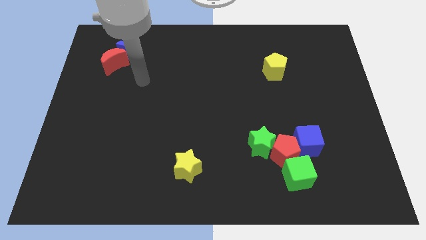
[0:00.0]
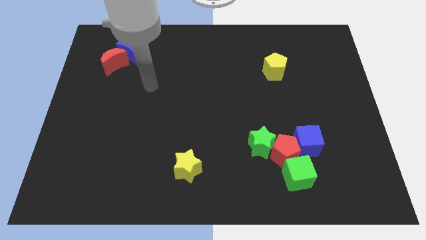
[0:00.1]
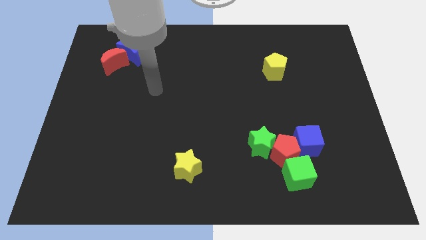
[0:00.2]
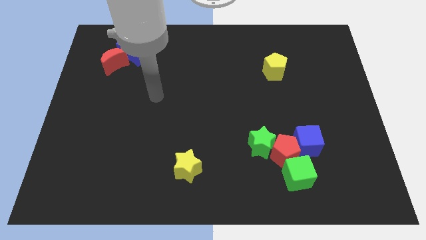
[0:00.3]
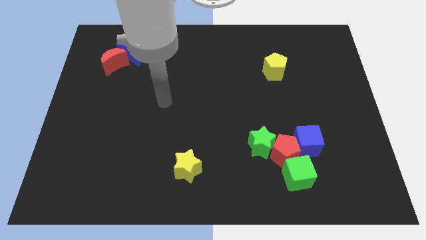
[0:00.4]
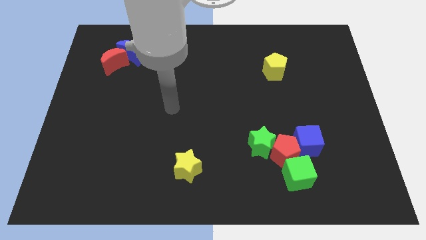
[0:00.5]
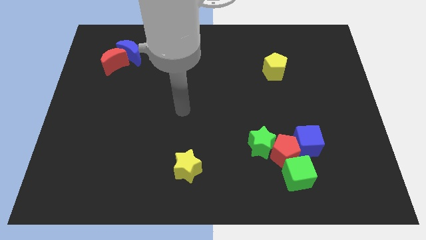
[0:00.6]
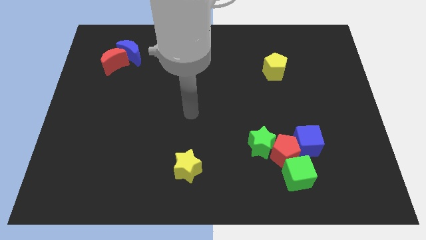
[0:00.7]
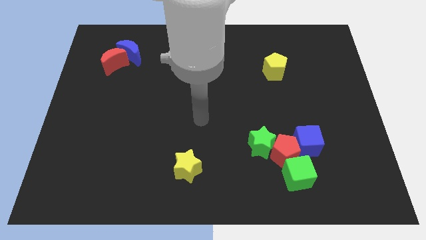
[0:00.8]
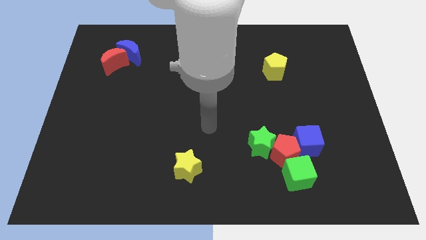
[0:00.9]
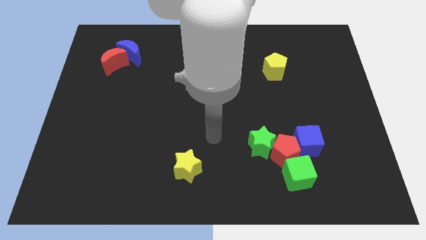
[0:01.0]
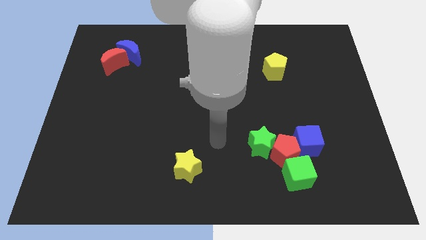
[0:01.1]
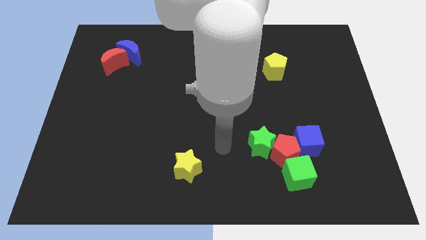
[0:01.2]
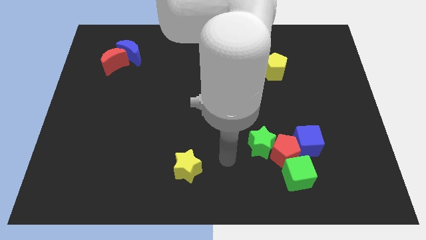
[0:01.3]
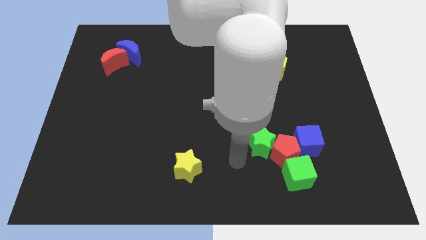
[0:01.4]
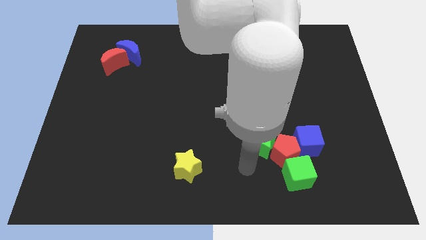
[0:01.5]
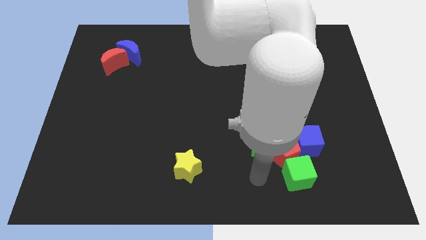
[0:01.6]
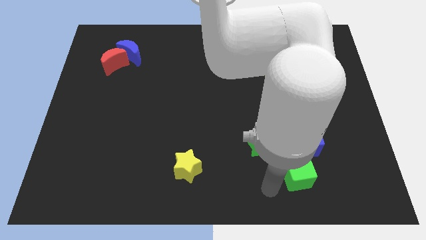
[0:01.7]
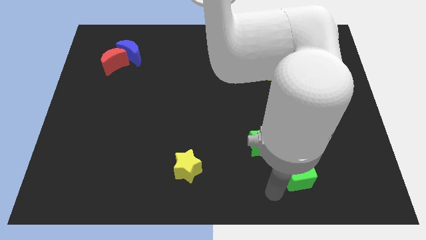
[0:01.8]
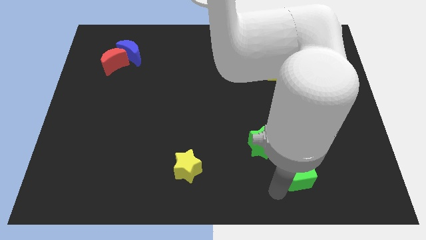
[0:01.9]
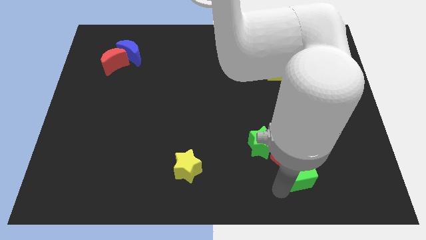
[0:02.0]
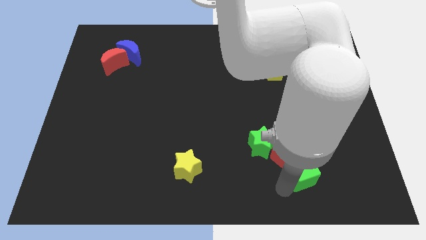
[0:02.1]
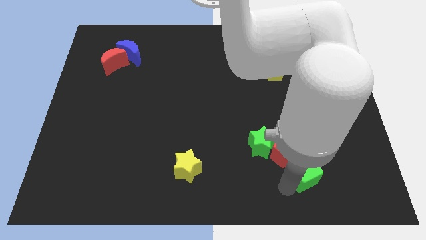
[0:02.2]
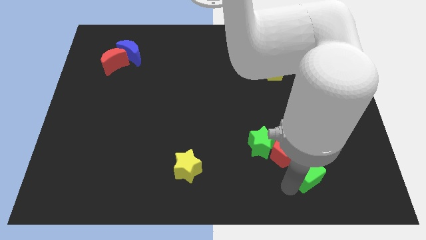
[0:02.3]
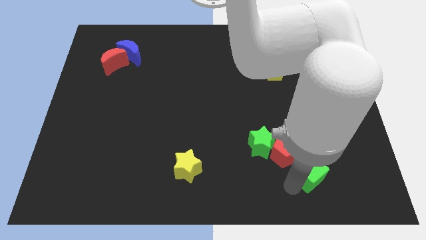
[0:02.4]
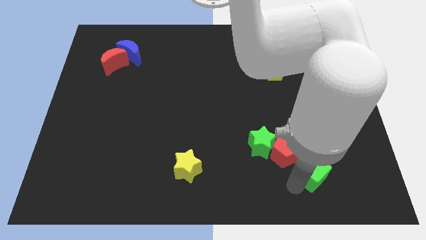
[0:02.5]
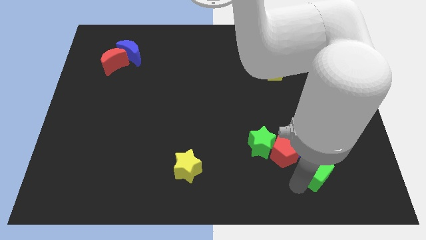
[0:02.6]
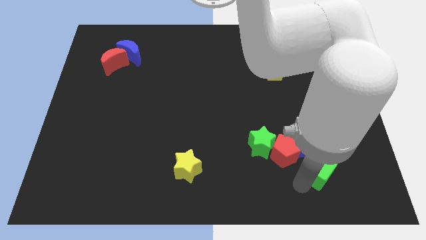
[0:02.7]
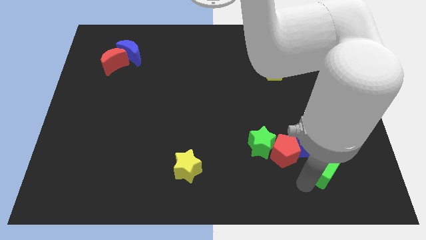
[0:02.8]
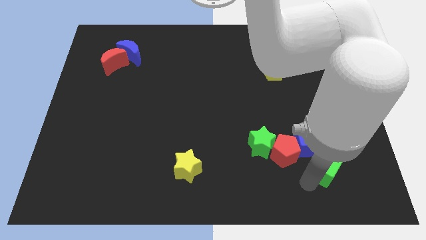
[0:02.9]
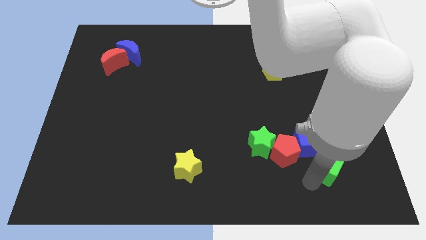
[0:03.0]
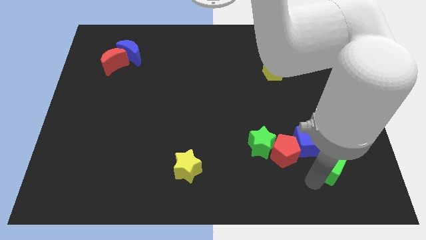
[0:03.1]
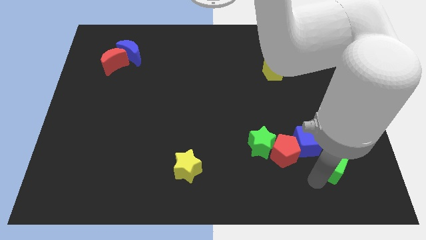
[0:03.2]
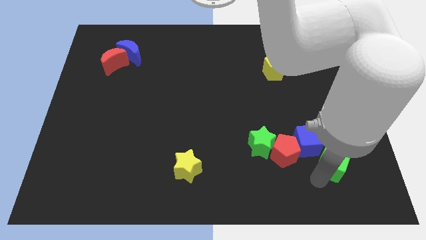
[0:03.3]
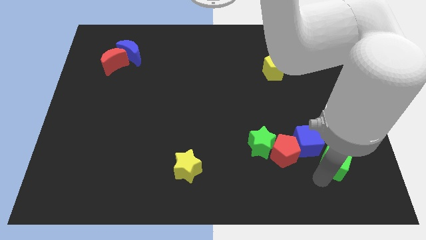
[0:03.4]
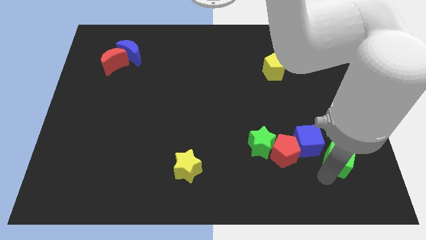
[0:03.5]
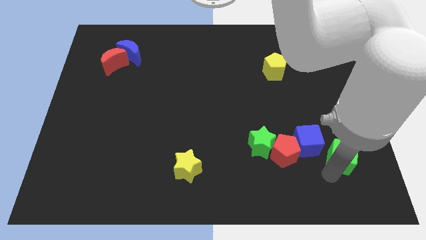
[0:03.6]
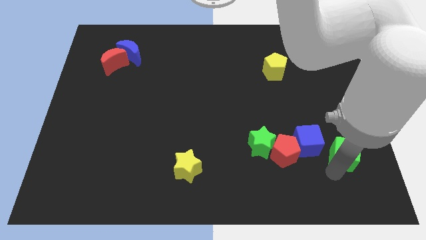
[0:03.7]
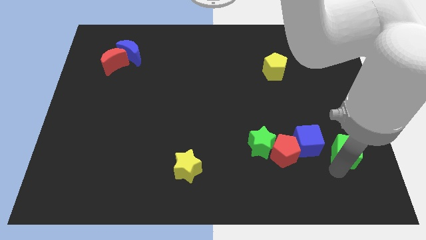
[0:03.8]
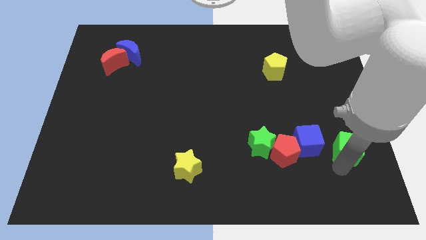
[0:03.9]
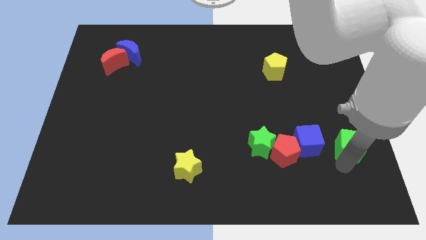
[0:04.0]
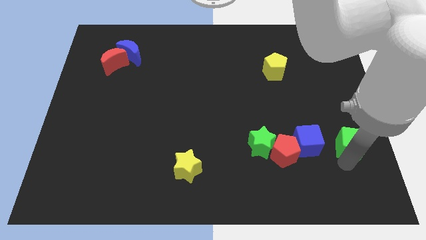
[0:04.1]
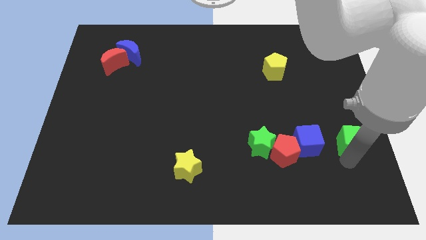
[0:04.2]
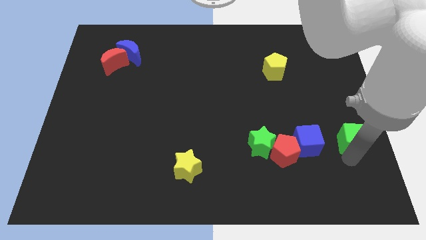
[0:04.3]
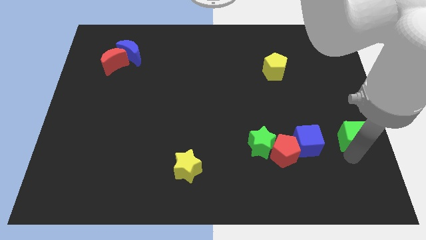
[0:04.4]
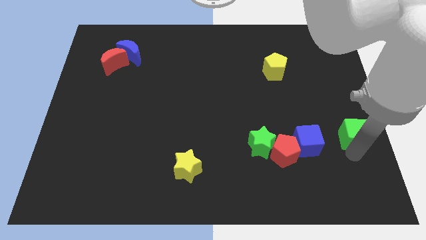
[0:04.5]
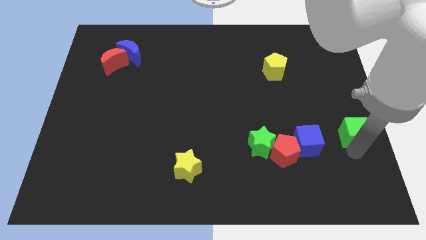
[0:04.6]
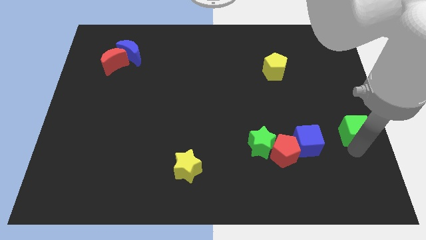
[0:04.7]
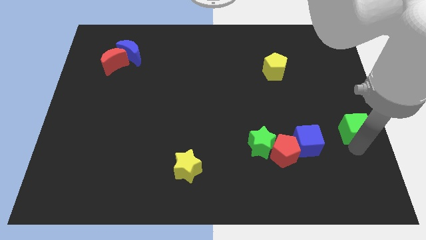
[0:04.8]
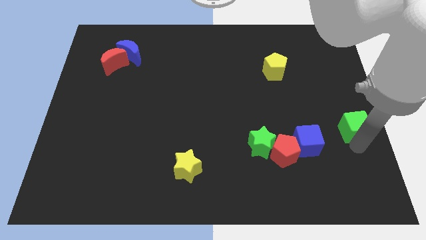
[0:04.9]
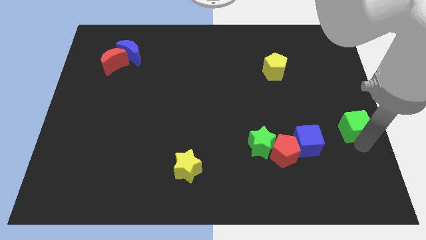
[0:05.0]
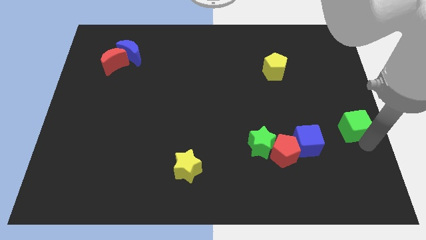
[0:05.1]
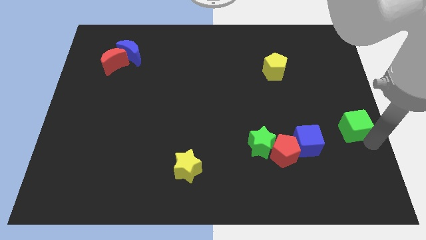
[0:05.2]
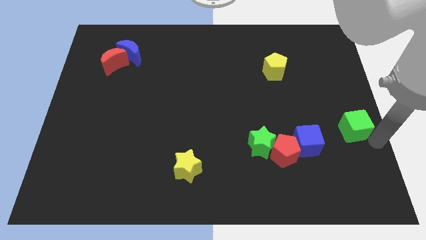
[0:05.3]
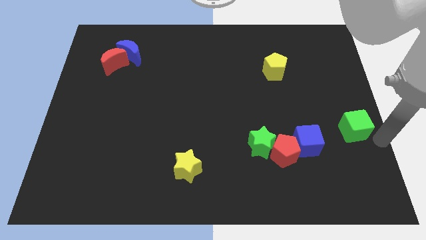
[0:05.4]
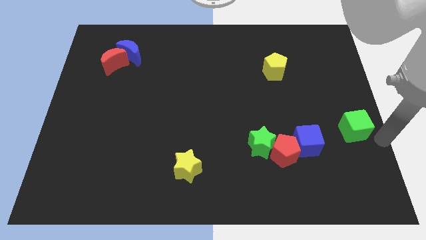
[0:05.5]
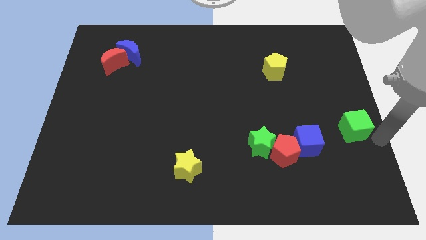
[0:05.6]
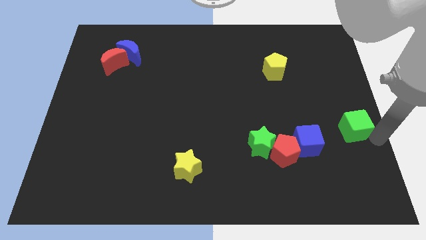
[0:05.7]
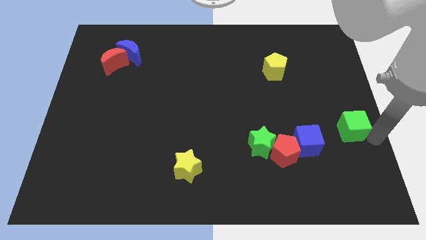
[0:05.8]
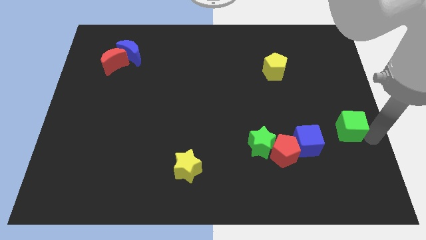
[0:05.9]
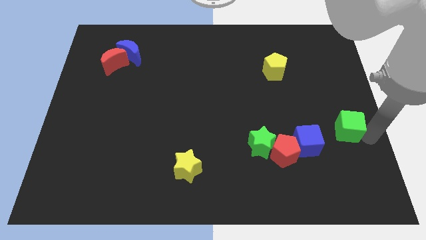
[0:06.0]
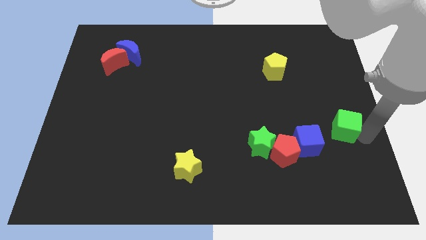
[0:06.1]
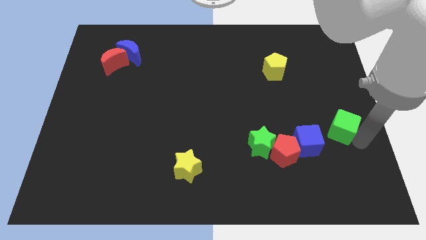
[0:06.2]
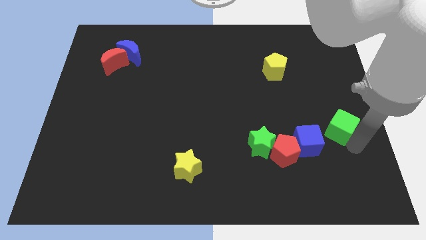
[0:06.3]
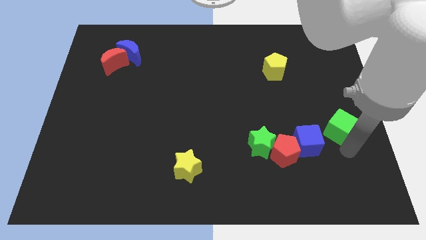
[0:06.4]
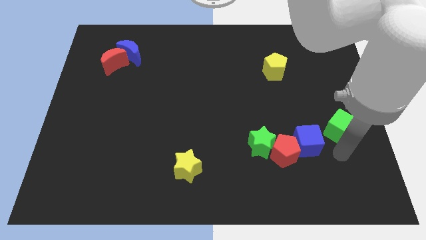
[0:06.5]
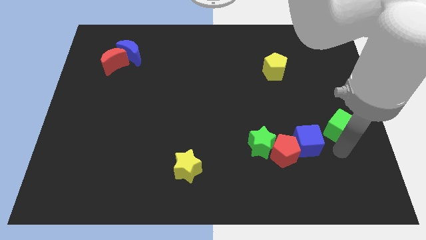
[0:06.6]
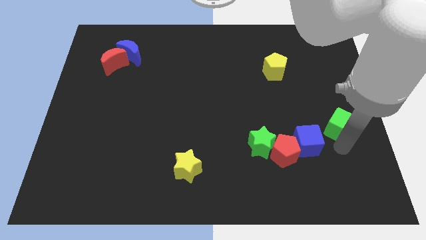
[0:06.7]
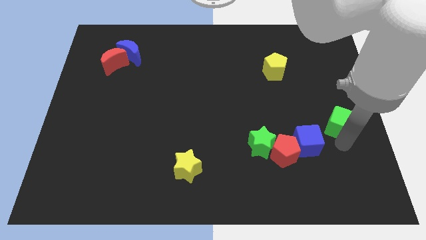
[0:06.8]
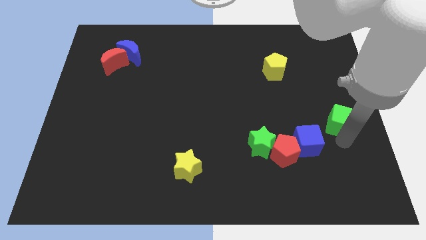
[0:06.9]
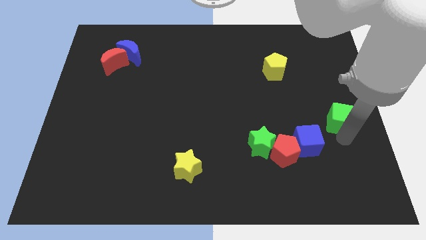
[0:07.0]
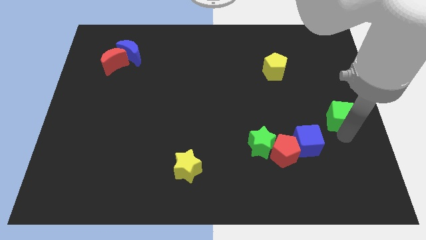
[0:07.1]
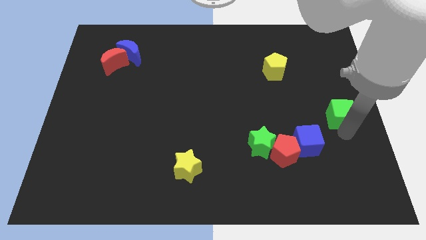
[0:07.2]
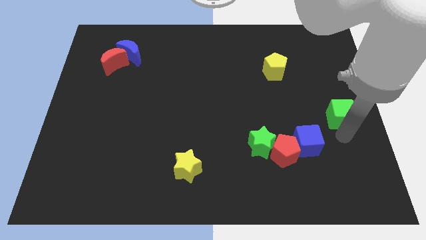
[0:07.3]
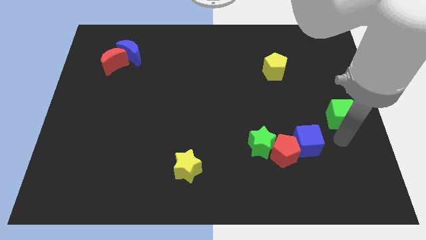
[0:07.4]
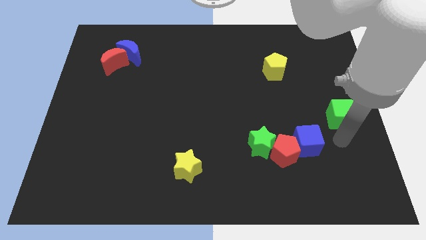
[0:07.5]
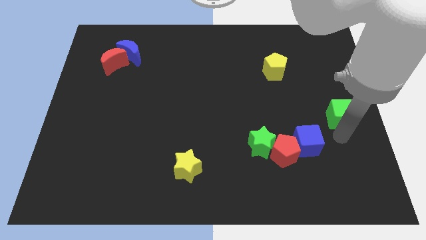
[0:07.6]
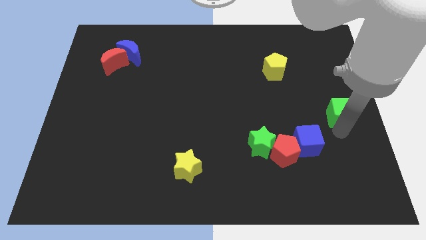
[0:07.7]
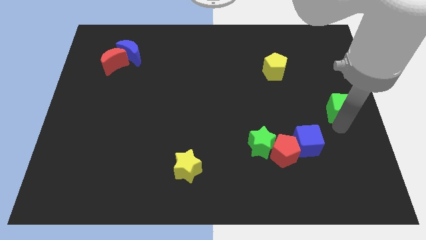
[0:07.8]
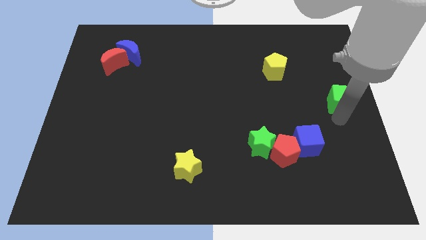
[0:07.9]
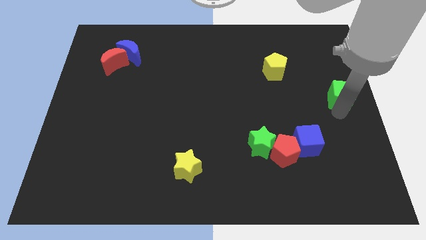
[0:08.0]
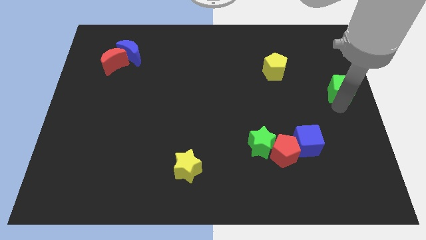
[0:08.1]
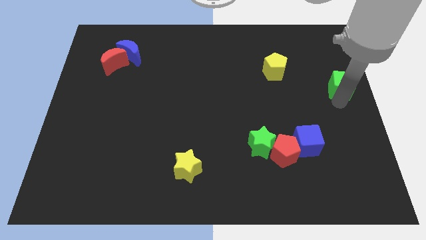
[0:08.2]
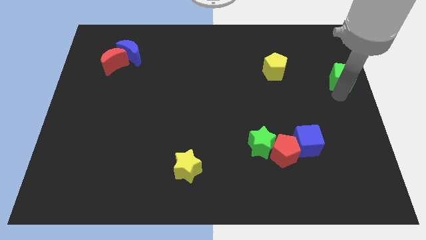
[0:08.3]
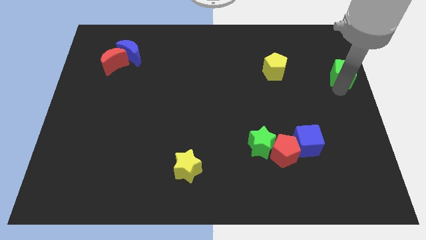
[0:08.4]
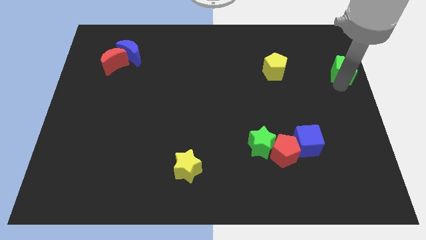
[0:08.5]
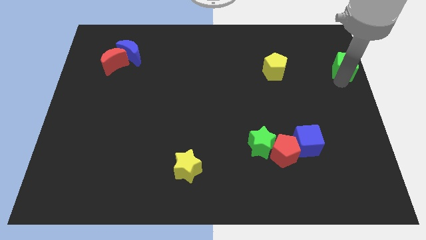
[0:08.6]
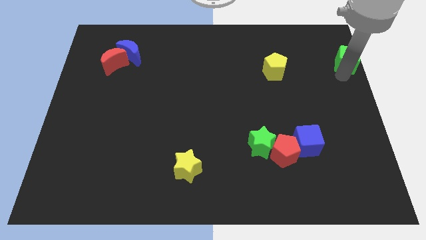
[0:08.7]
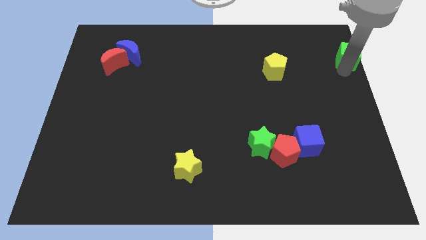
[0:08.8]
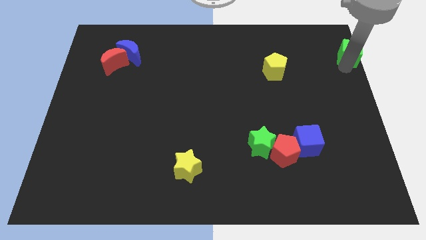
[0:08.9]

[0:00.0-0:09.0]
slide the green cube to the top right corner
